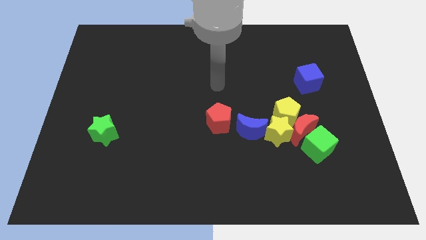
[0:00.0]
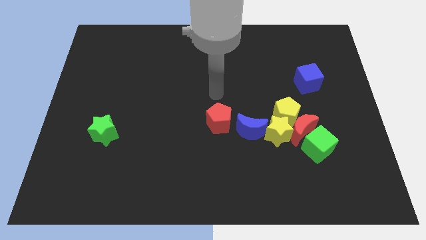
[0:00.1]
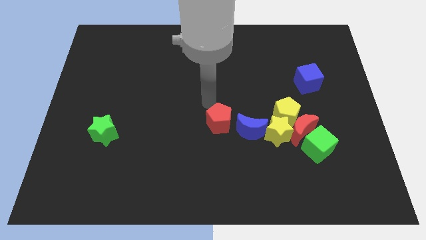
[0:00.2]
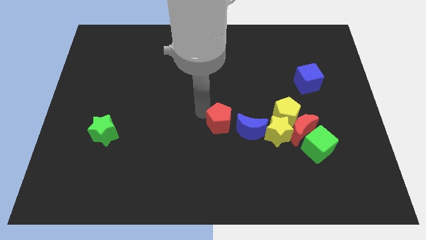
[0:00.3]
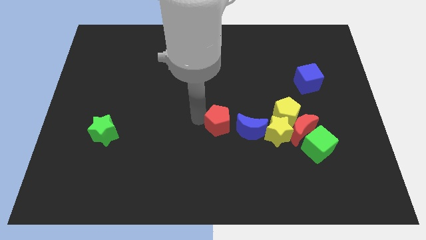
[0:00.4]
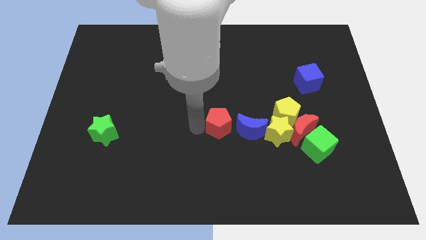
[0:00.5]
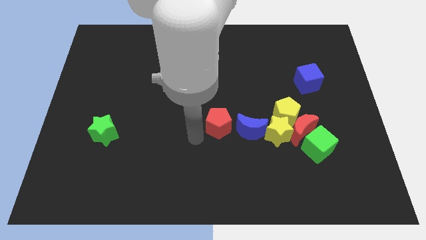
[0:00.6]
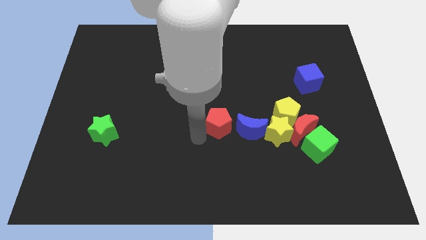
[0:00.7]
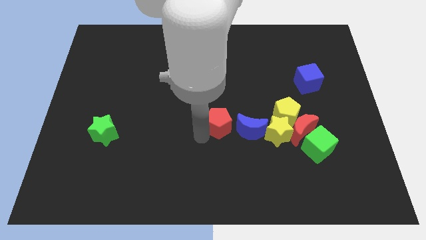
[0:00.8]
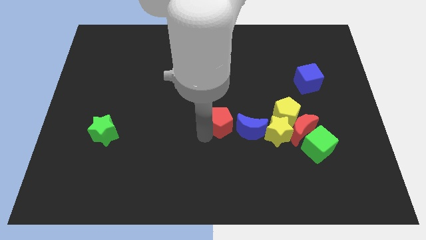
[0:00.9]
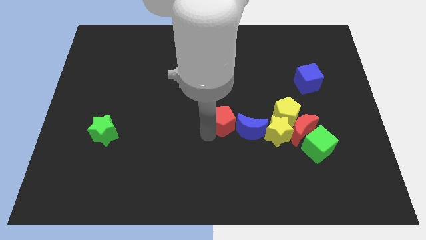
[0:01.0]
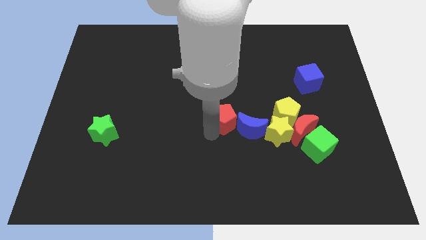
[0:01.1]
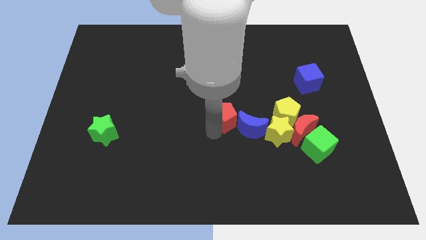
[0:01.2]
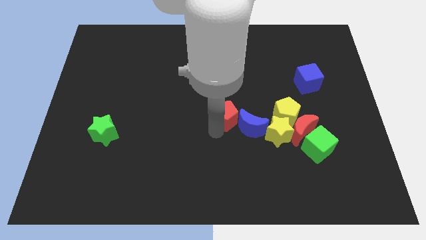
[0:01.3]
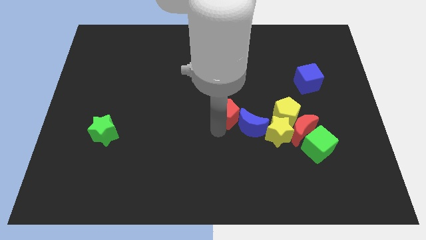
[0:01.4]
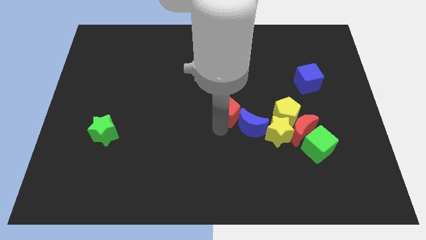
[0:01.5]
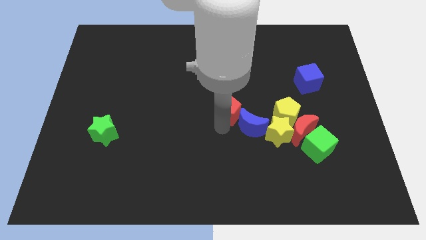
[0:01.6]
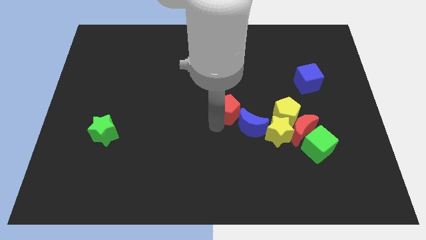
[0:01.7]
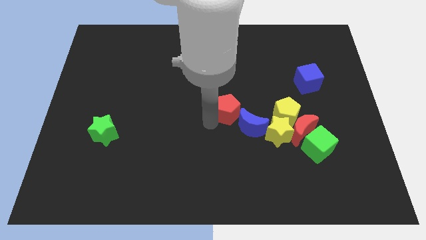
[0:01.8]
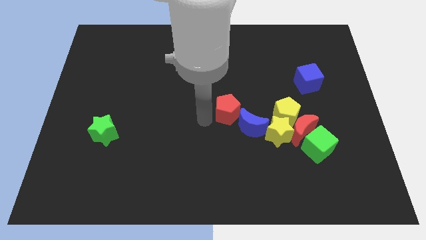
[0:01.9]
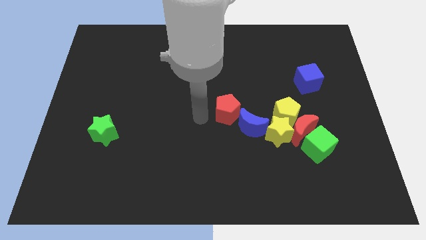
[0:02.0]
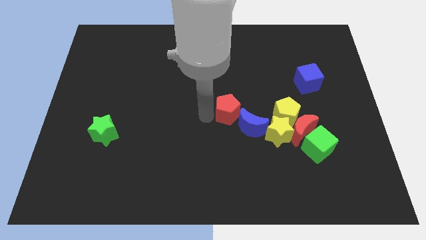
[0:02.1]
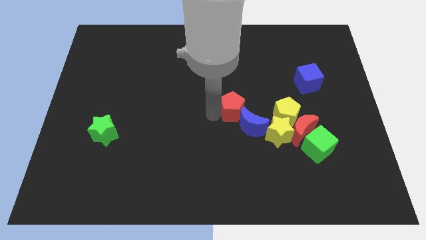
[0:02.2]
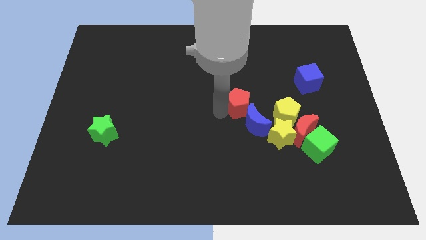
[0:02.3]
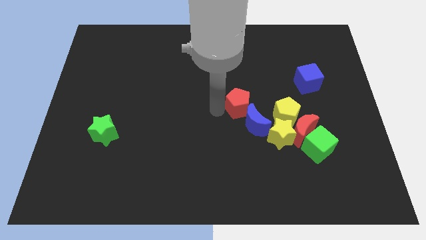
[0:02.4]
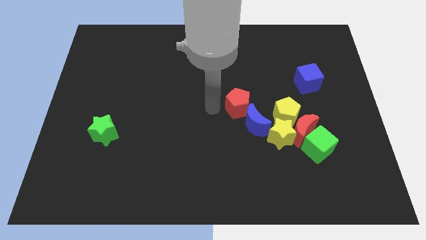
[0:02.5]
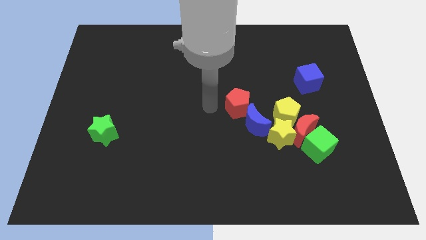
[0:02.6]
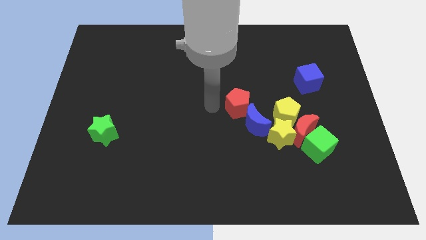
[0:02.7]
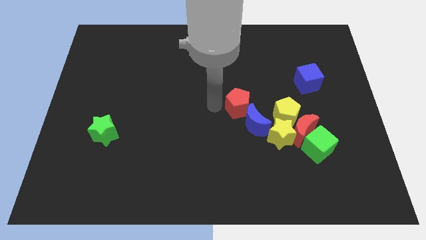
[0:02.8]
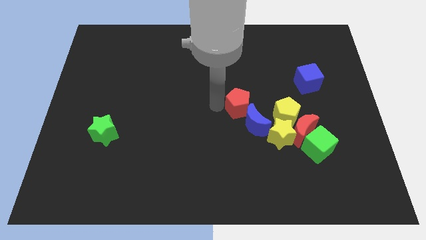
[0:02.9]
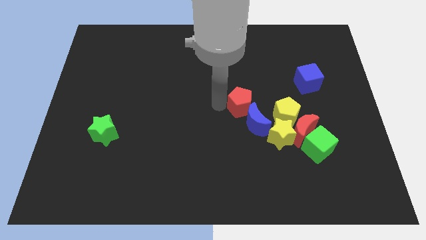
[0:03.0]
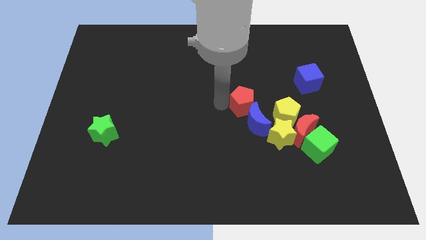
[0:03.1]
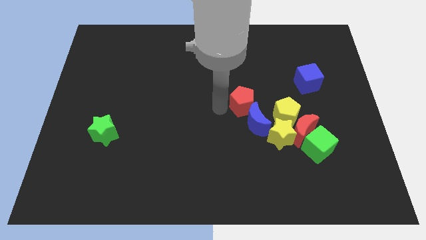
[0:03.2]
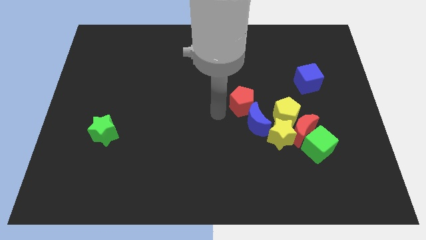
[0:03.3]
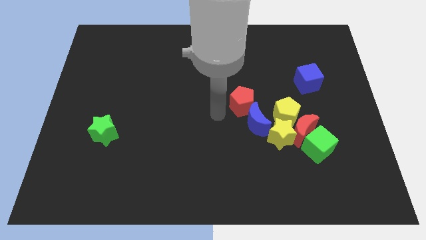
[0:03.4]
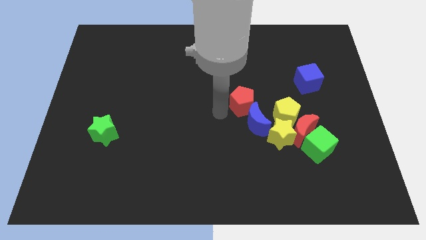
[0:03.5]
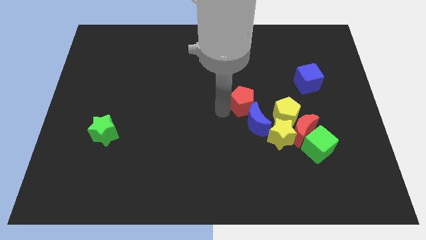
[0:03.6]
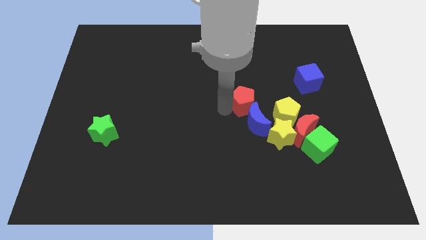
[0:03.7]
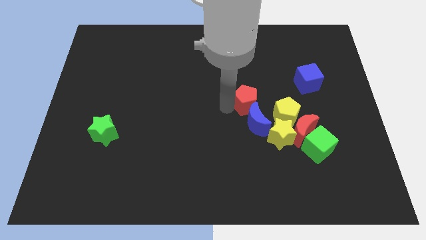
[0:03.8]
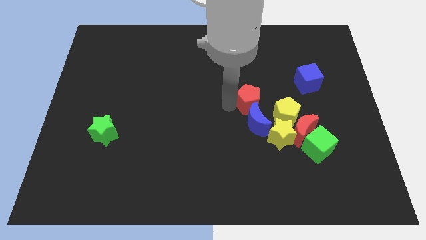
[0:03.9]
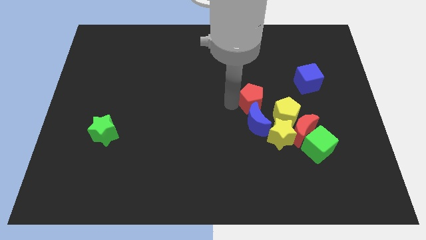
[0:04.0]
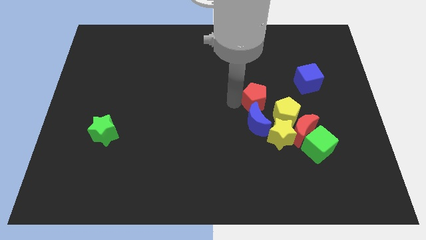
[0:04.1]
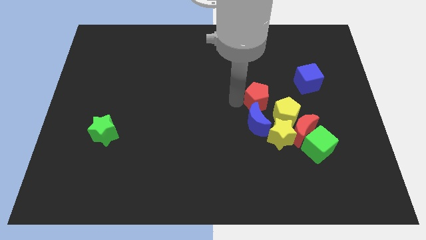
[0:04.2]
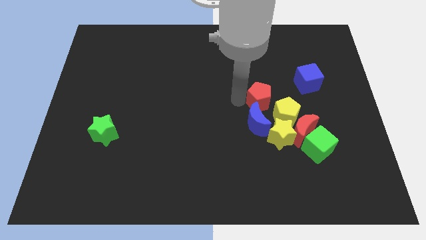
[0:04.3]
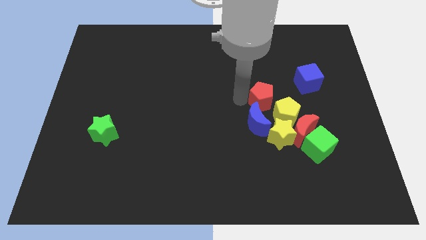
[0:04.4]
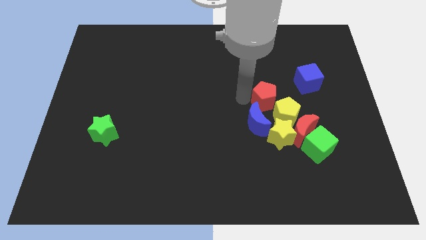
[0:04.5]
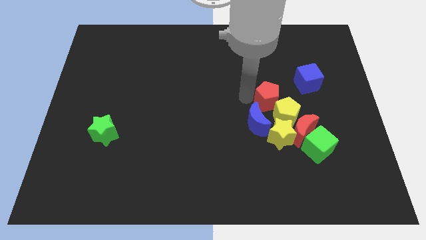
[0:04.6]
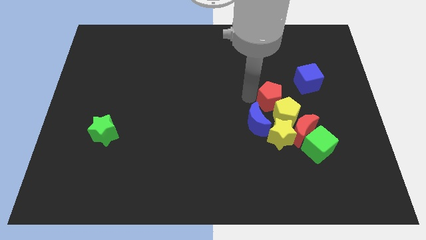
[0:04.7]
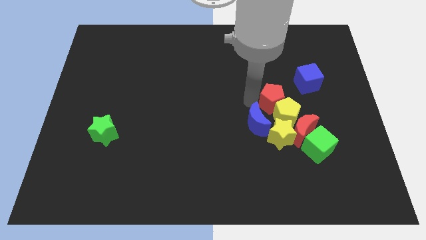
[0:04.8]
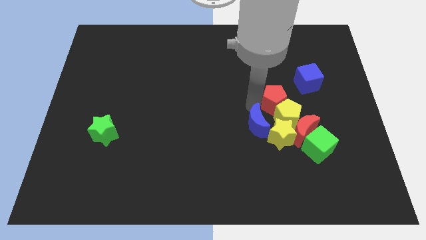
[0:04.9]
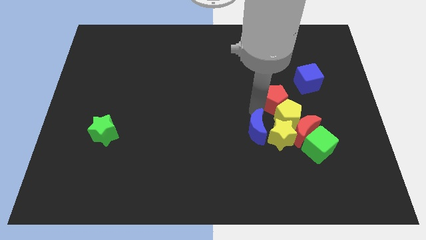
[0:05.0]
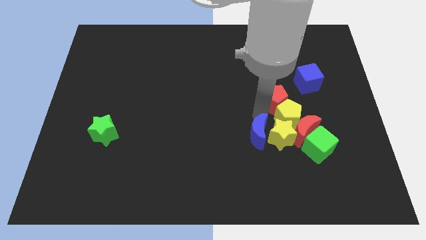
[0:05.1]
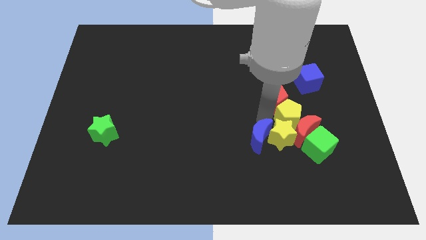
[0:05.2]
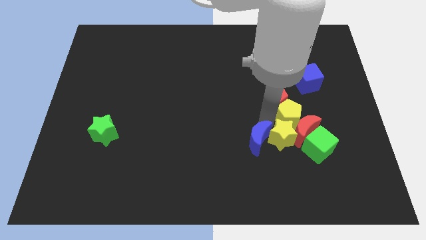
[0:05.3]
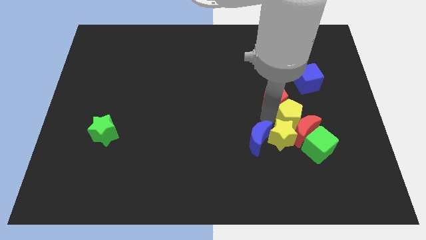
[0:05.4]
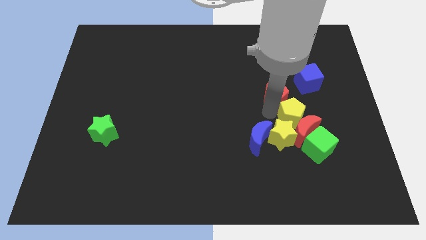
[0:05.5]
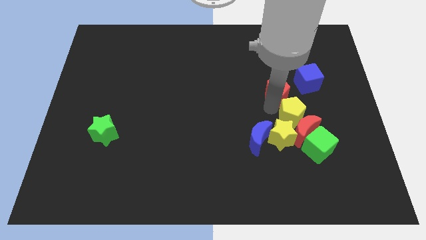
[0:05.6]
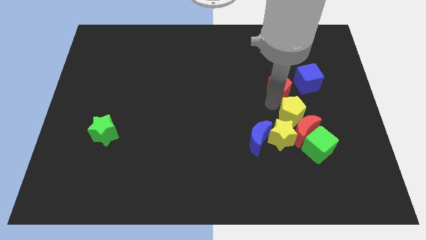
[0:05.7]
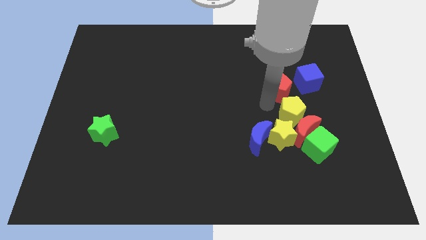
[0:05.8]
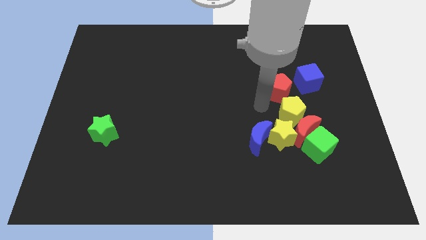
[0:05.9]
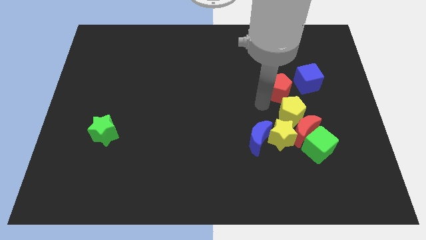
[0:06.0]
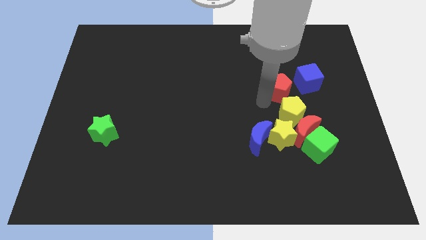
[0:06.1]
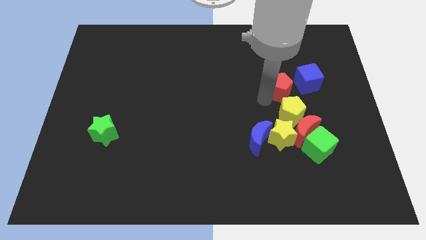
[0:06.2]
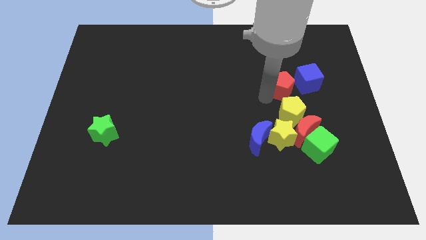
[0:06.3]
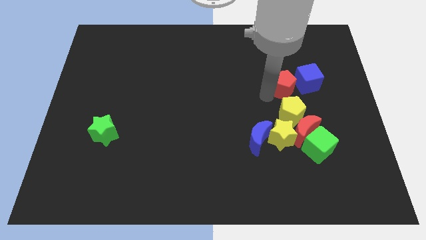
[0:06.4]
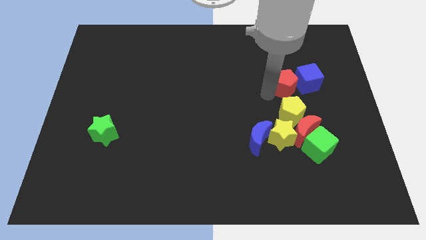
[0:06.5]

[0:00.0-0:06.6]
push the red pentagon next to the blue cube

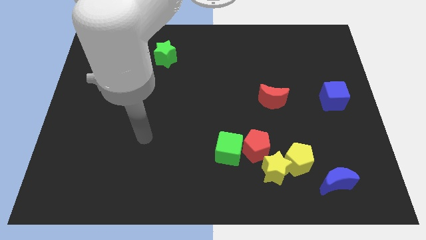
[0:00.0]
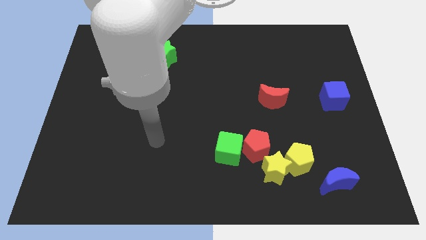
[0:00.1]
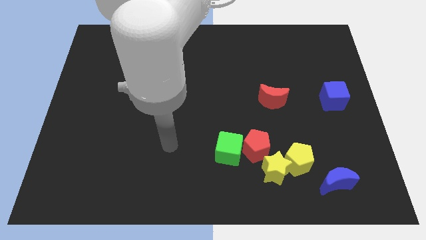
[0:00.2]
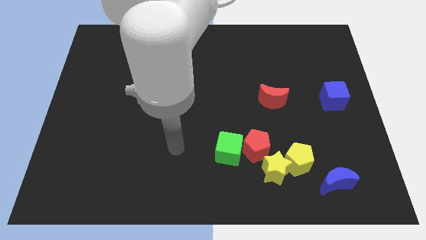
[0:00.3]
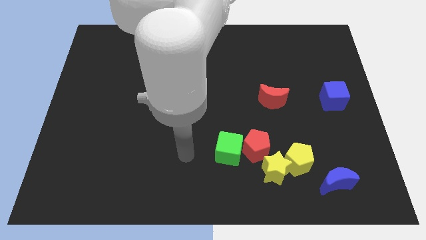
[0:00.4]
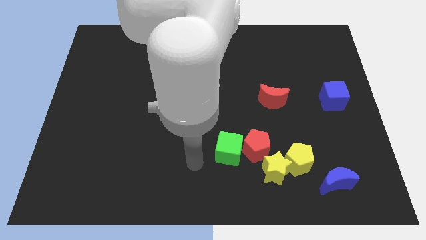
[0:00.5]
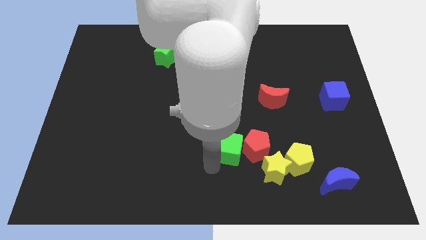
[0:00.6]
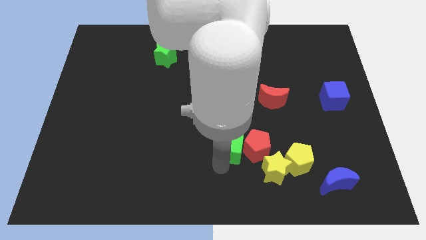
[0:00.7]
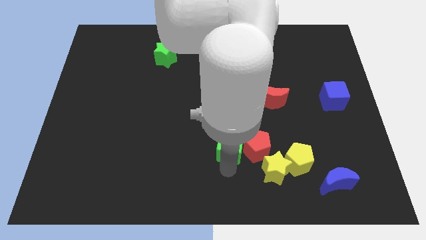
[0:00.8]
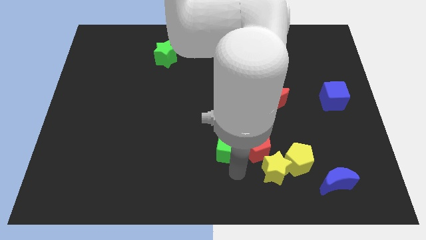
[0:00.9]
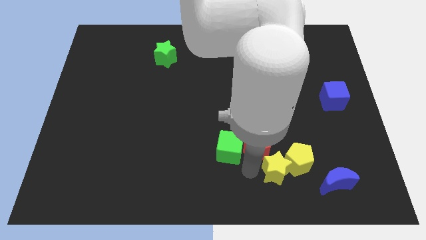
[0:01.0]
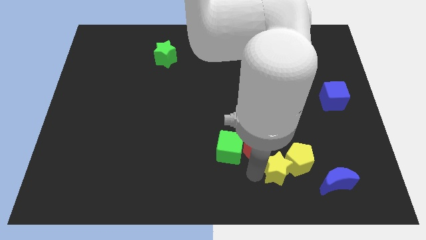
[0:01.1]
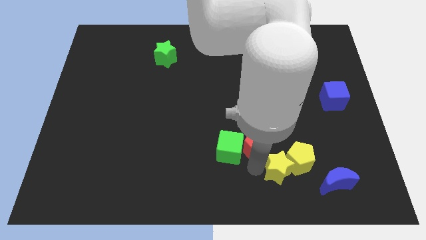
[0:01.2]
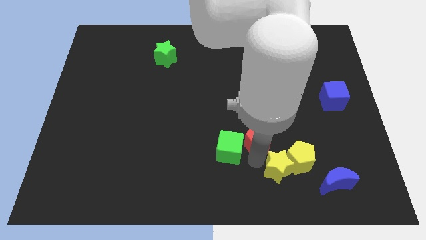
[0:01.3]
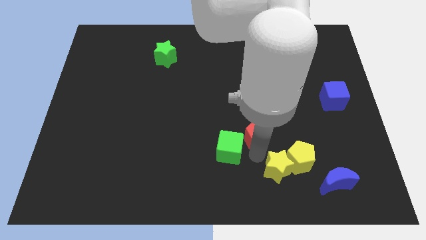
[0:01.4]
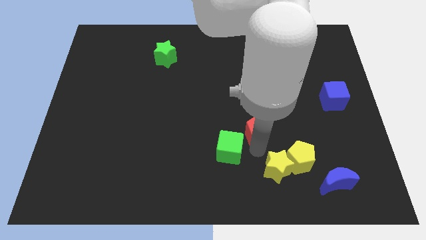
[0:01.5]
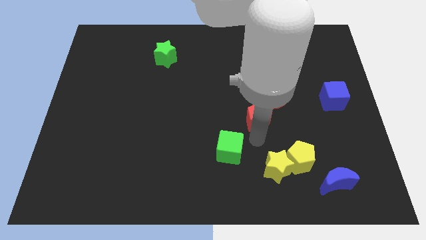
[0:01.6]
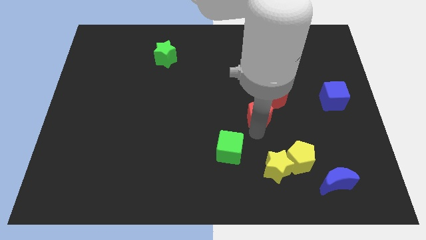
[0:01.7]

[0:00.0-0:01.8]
slide the red pentagon next to the red moon

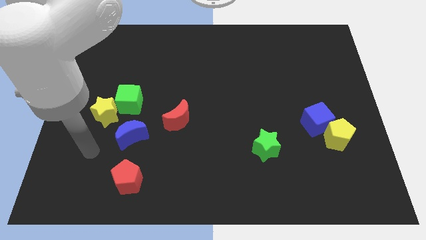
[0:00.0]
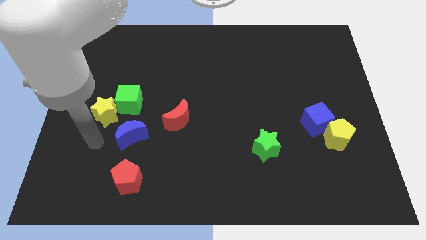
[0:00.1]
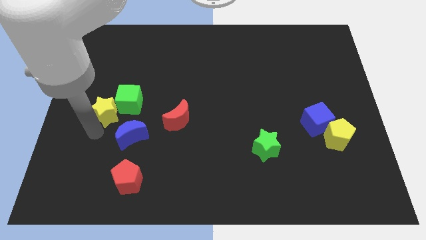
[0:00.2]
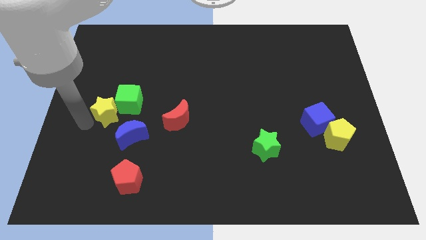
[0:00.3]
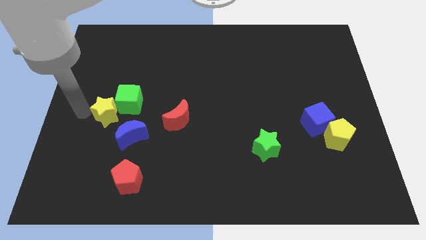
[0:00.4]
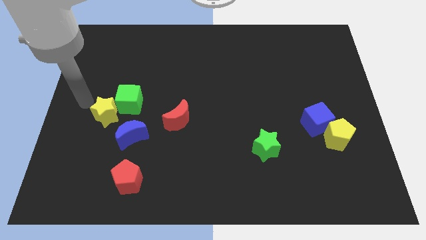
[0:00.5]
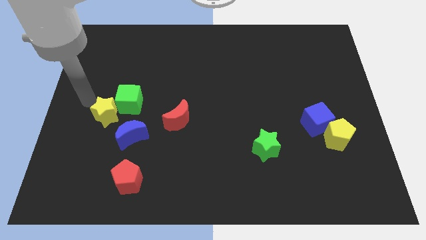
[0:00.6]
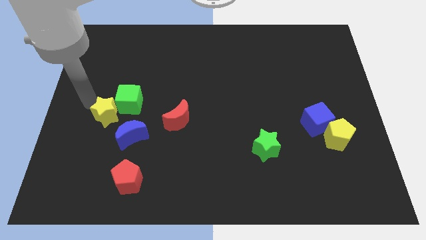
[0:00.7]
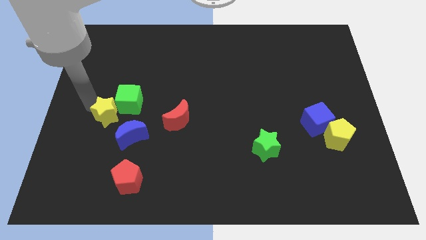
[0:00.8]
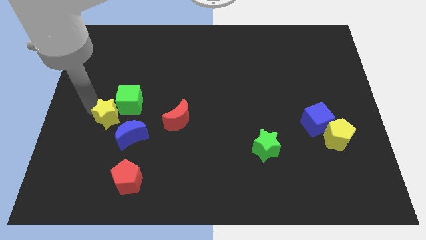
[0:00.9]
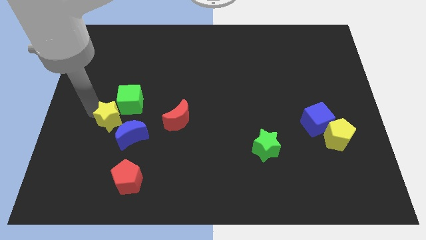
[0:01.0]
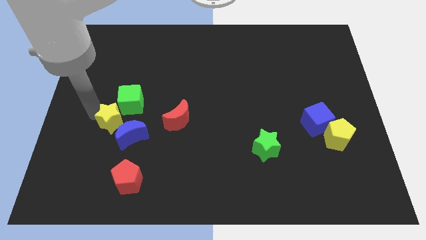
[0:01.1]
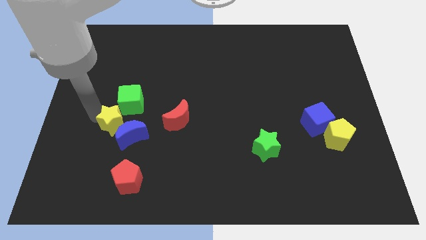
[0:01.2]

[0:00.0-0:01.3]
put the yellow star close to the blue moon
